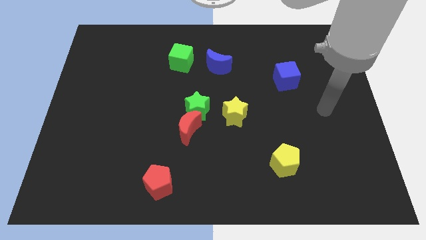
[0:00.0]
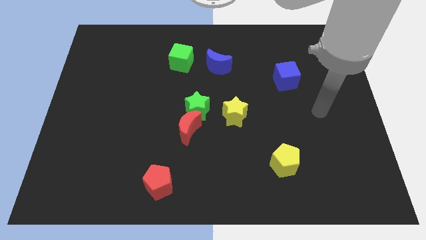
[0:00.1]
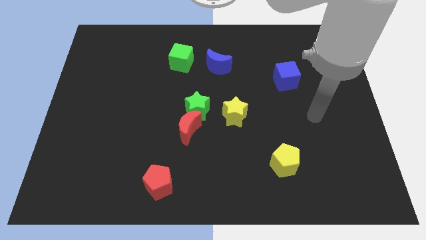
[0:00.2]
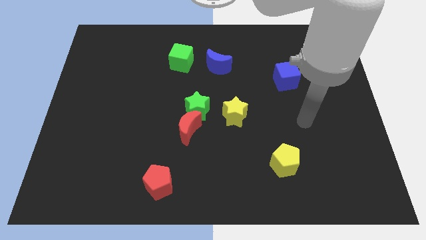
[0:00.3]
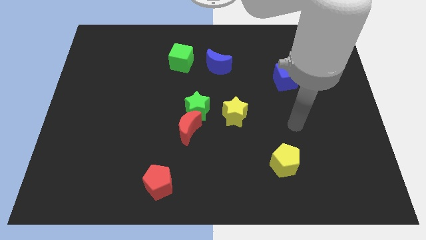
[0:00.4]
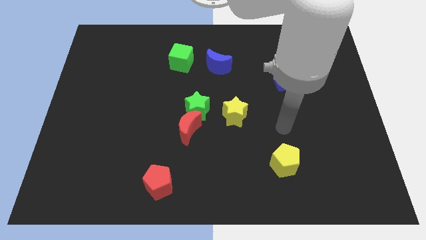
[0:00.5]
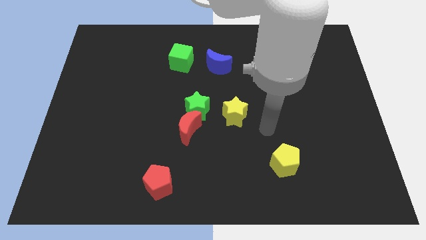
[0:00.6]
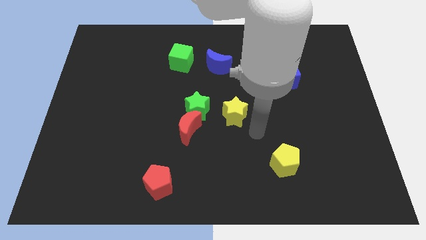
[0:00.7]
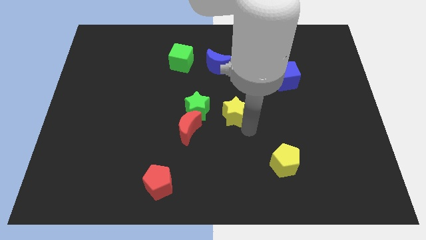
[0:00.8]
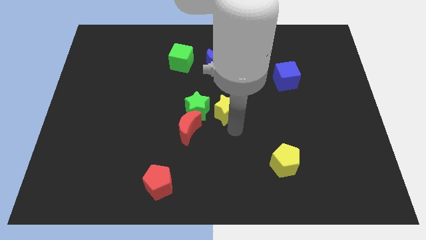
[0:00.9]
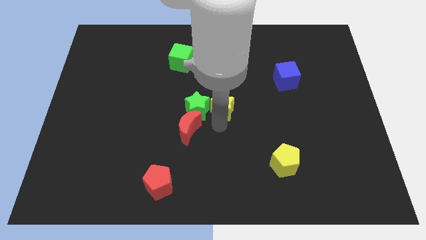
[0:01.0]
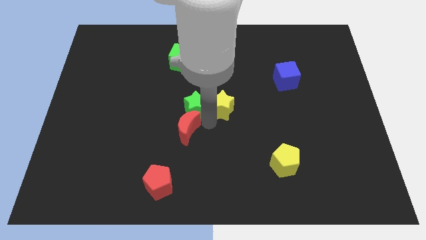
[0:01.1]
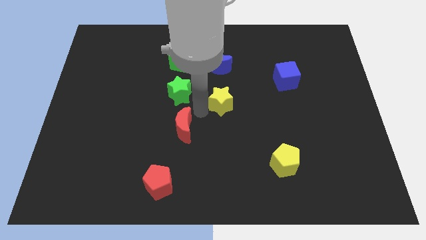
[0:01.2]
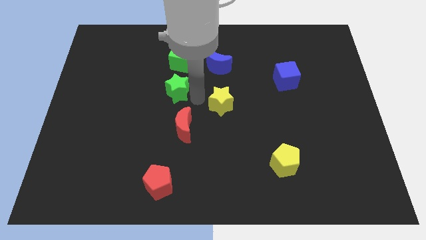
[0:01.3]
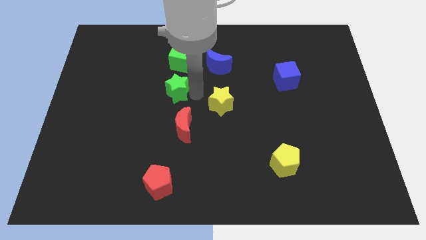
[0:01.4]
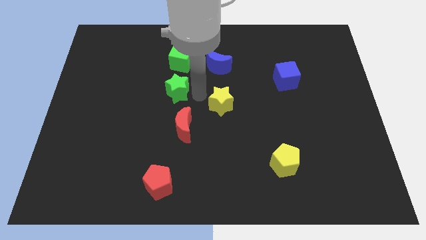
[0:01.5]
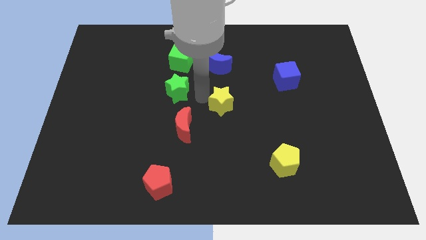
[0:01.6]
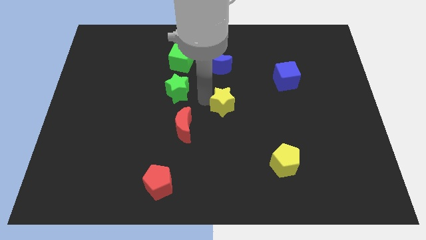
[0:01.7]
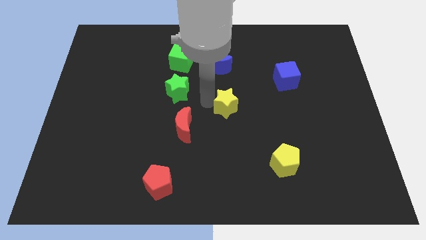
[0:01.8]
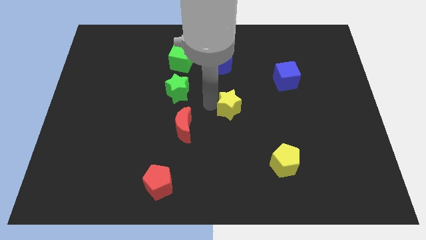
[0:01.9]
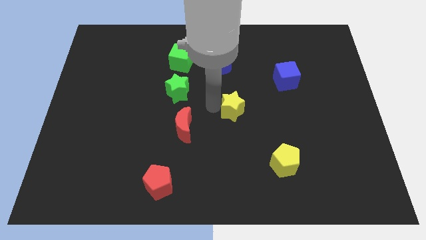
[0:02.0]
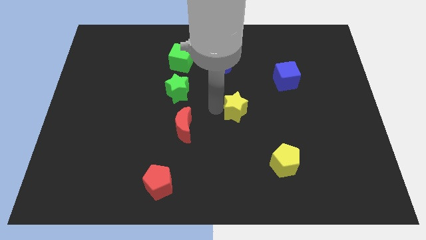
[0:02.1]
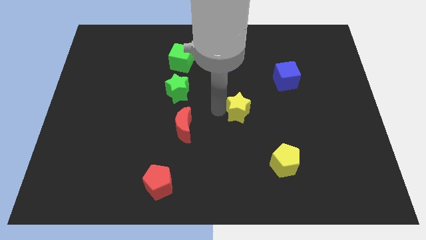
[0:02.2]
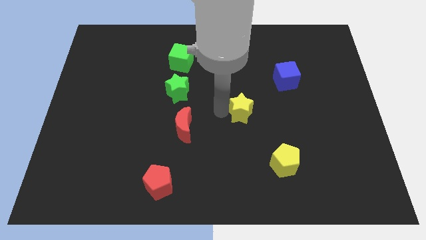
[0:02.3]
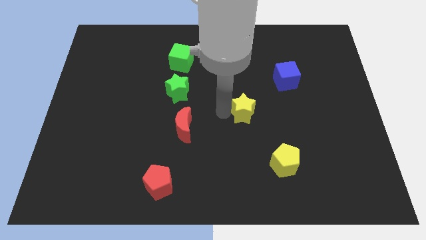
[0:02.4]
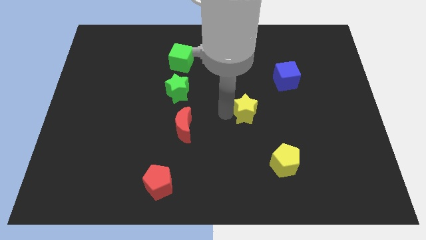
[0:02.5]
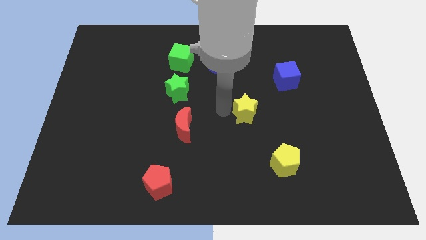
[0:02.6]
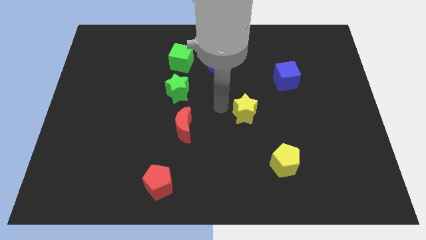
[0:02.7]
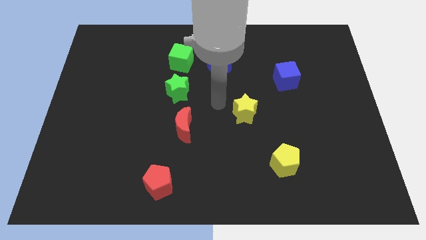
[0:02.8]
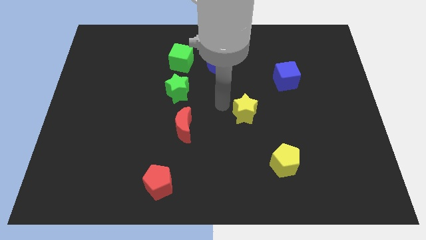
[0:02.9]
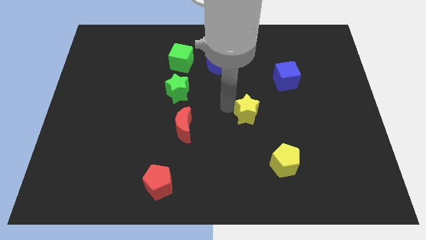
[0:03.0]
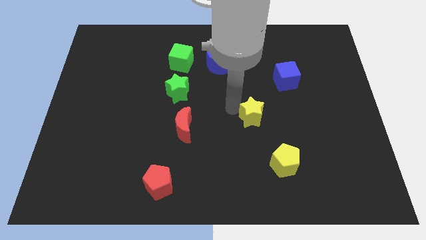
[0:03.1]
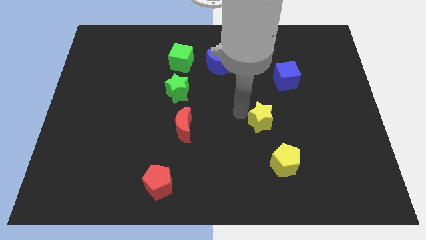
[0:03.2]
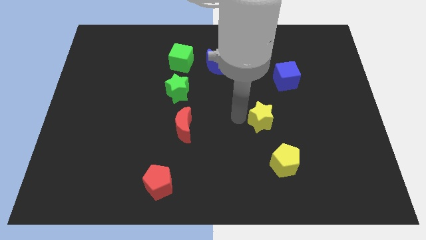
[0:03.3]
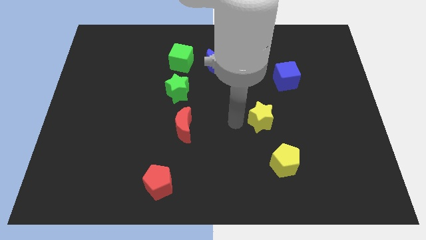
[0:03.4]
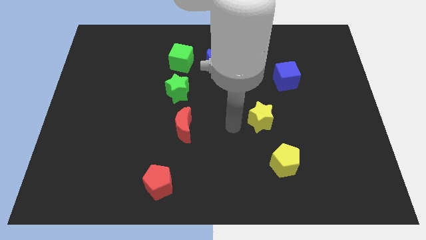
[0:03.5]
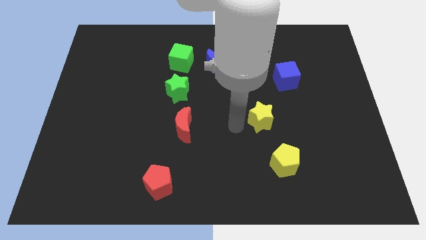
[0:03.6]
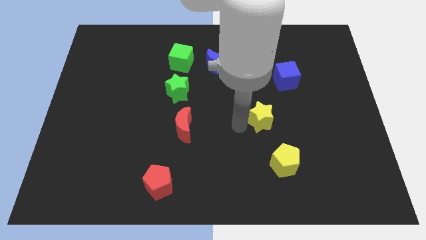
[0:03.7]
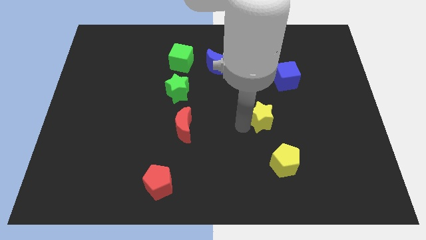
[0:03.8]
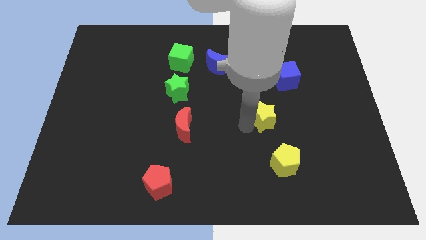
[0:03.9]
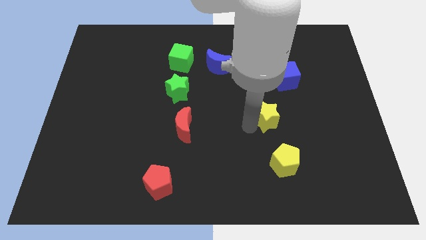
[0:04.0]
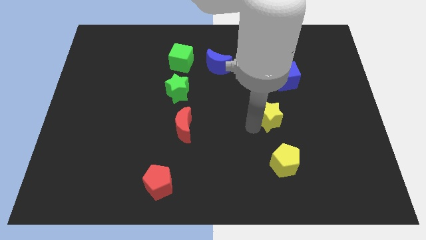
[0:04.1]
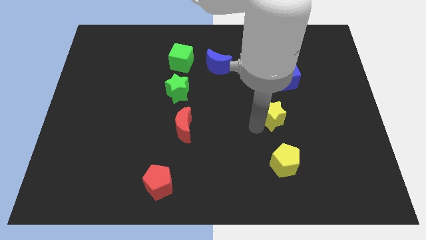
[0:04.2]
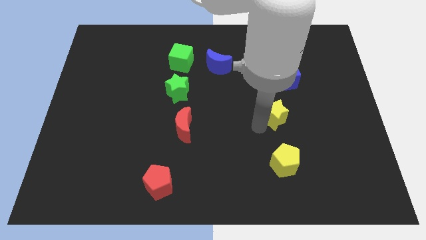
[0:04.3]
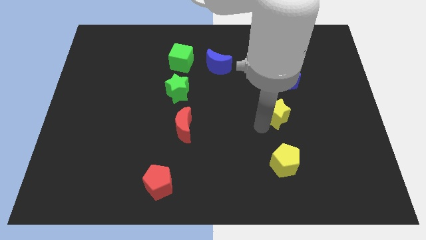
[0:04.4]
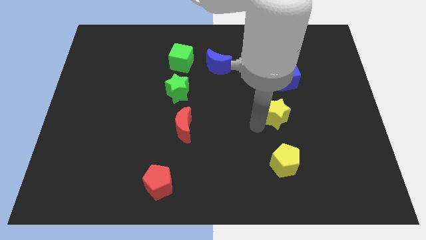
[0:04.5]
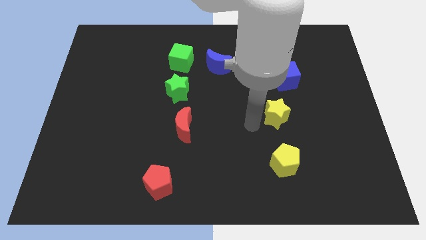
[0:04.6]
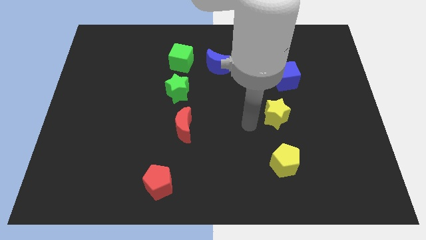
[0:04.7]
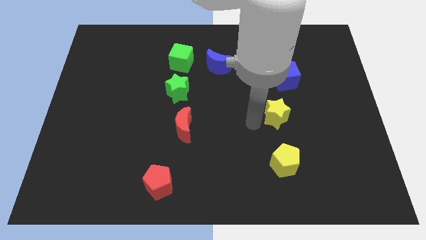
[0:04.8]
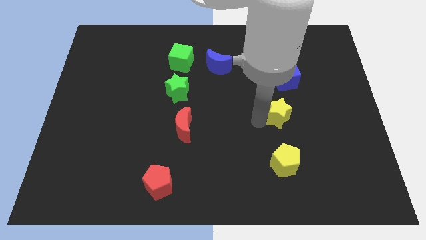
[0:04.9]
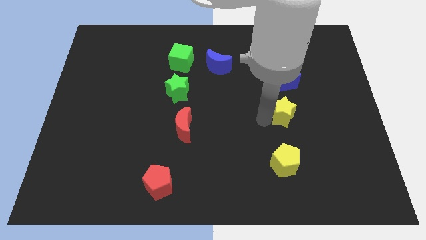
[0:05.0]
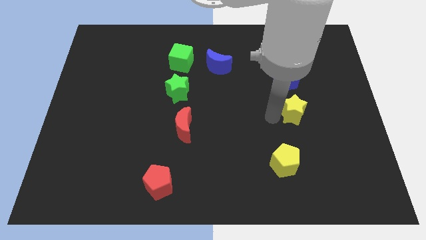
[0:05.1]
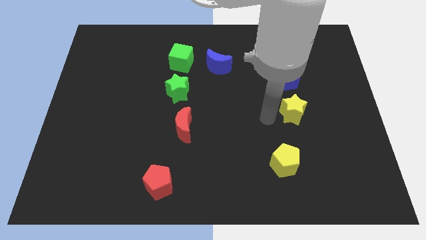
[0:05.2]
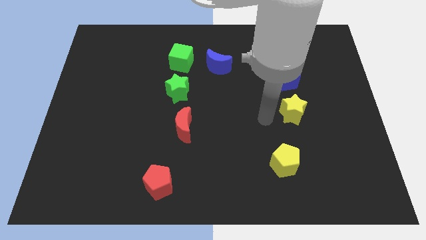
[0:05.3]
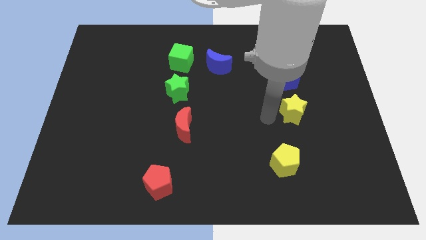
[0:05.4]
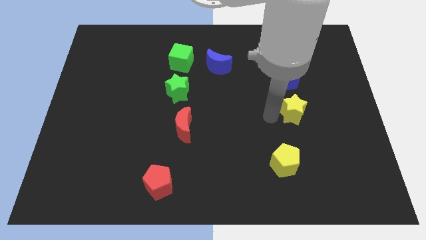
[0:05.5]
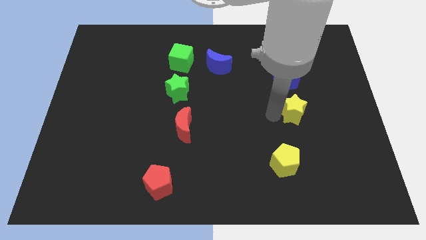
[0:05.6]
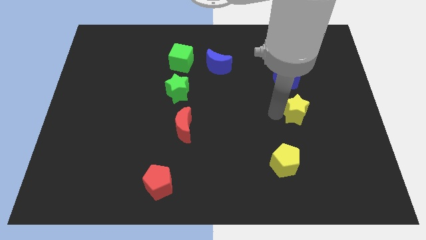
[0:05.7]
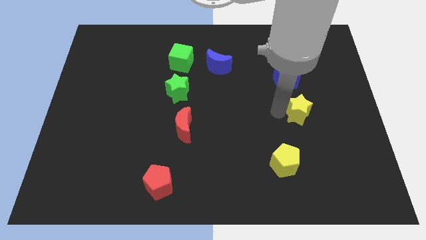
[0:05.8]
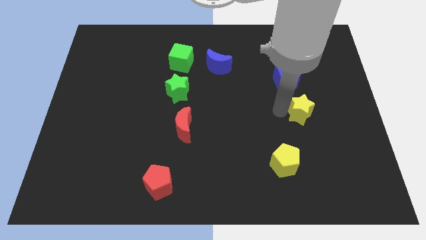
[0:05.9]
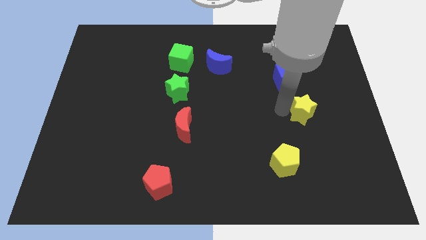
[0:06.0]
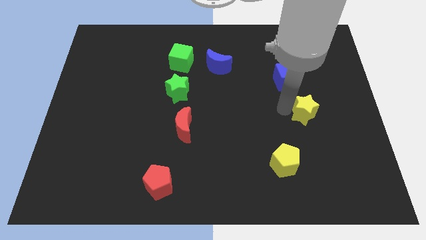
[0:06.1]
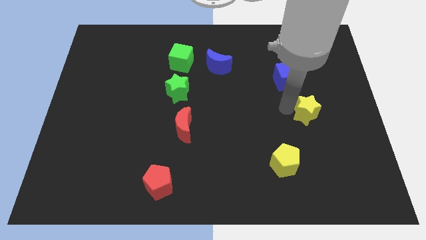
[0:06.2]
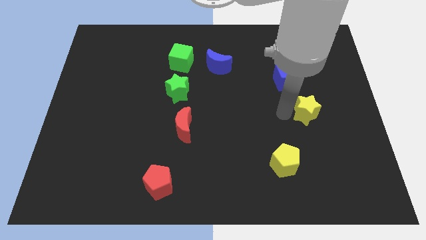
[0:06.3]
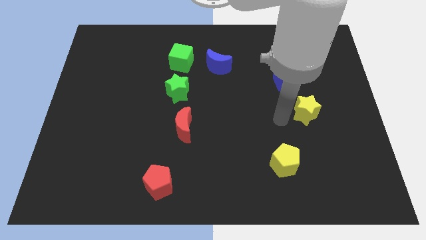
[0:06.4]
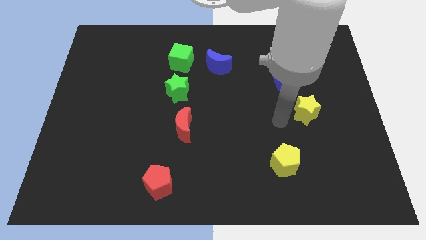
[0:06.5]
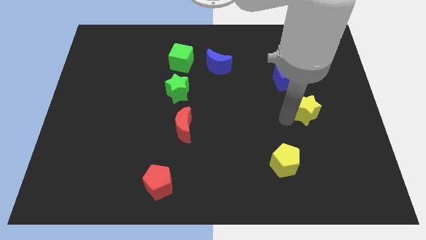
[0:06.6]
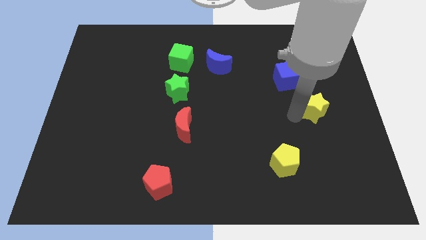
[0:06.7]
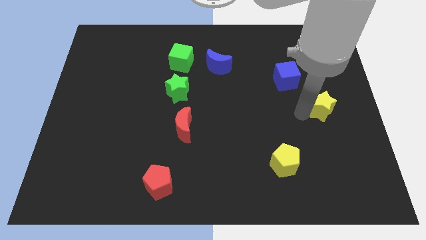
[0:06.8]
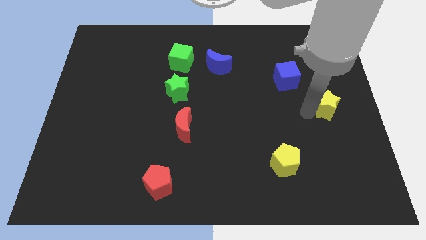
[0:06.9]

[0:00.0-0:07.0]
put the yellow star to the right side
